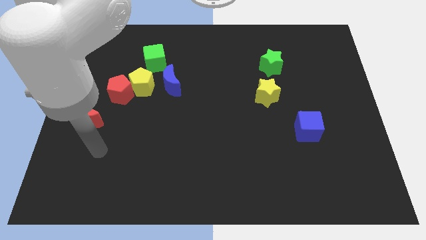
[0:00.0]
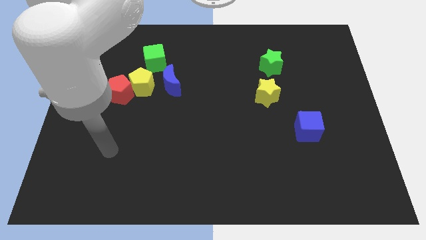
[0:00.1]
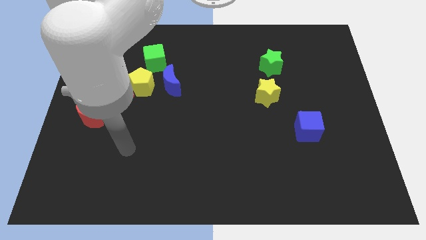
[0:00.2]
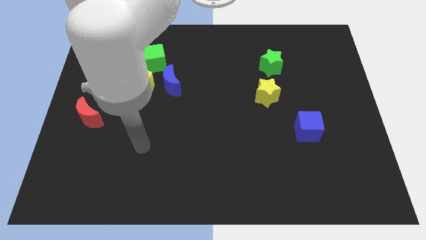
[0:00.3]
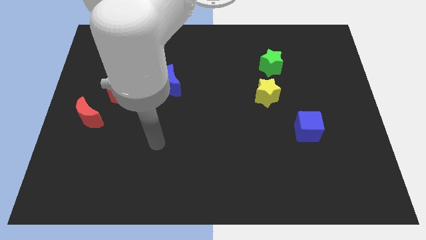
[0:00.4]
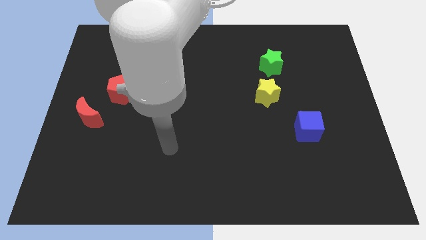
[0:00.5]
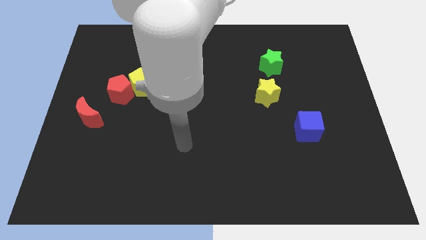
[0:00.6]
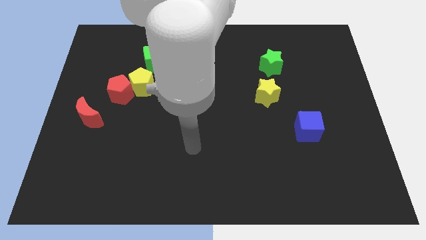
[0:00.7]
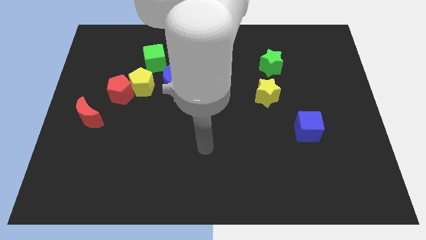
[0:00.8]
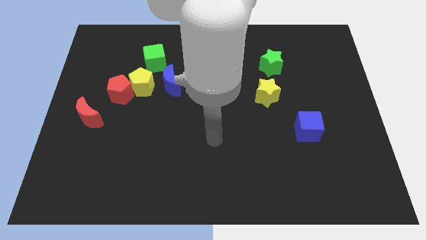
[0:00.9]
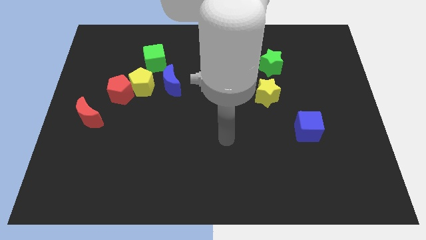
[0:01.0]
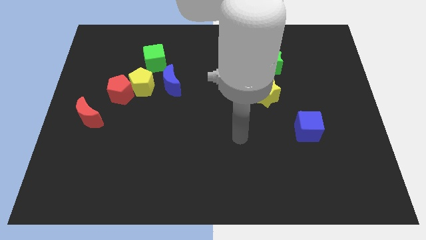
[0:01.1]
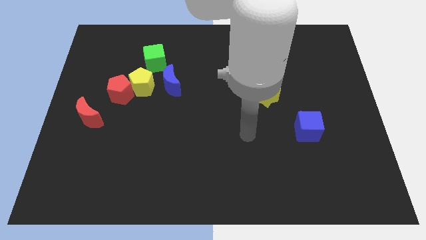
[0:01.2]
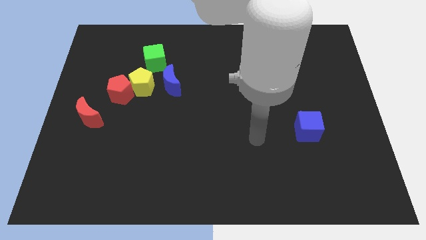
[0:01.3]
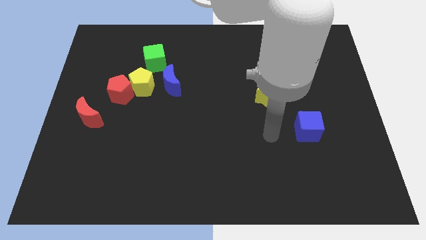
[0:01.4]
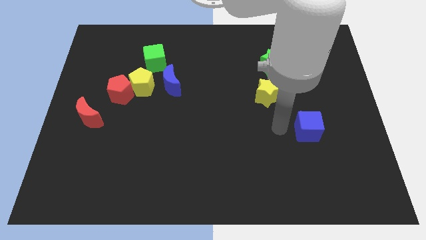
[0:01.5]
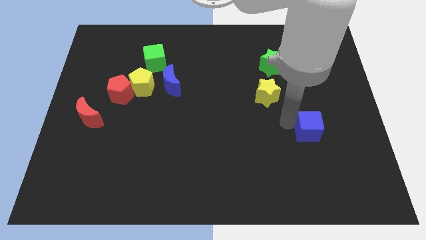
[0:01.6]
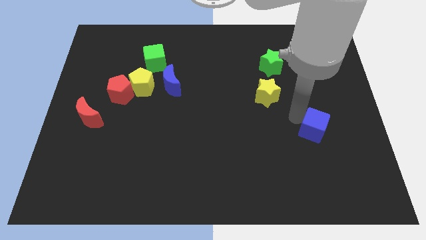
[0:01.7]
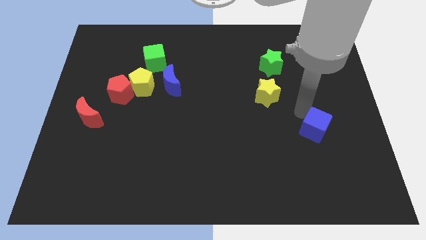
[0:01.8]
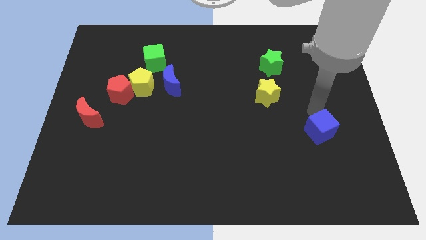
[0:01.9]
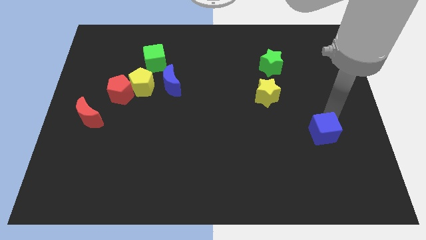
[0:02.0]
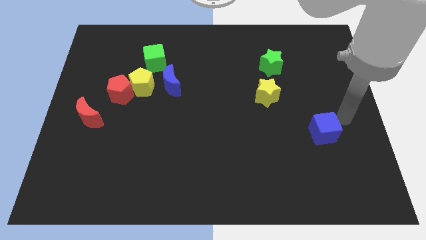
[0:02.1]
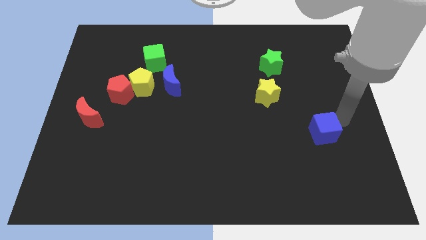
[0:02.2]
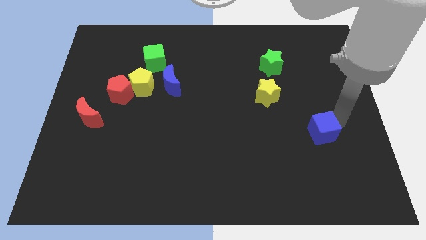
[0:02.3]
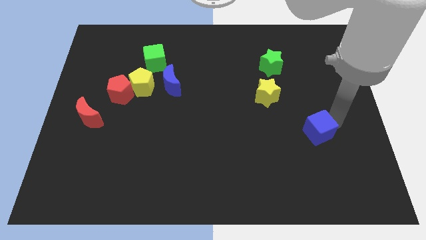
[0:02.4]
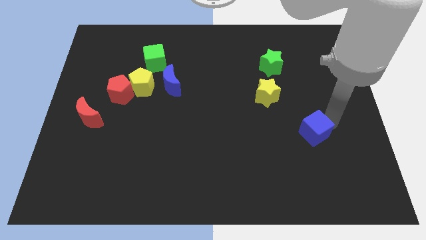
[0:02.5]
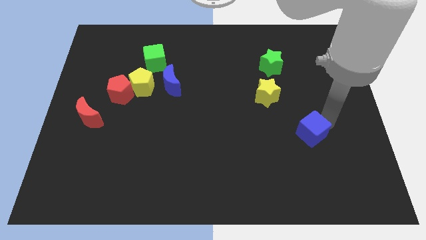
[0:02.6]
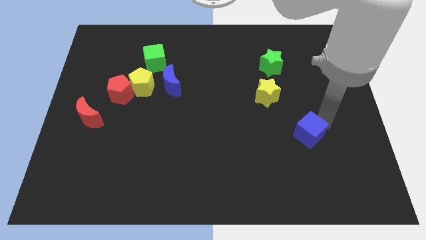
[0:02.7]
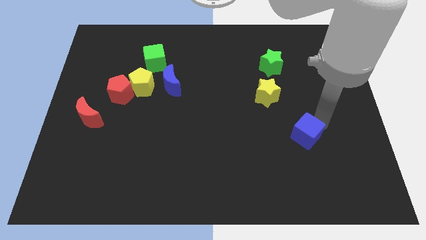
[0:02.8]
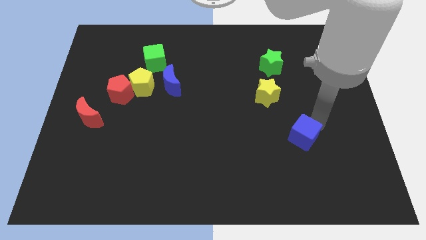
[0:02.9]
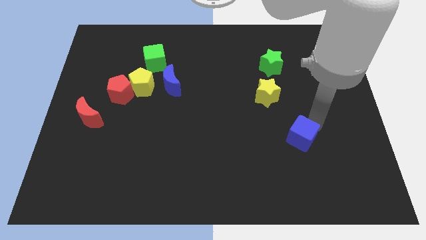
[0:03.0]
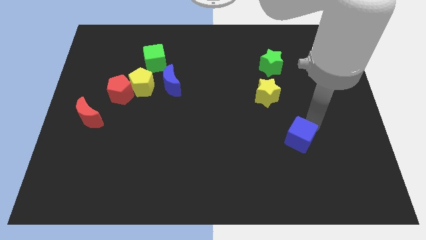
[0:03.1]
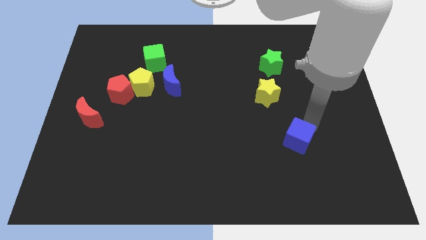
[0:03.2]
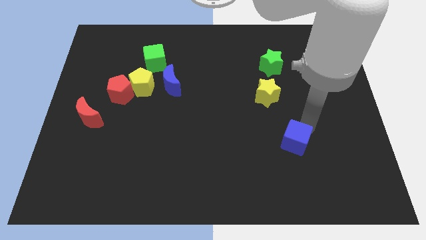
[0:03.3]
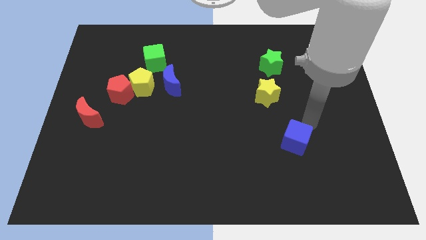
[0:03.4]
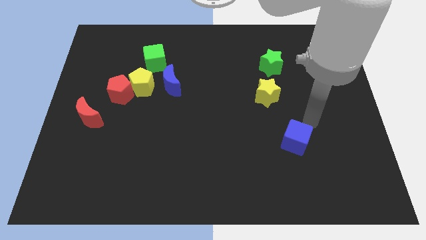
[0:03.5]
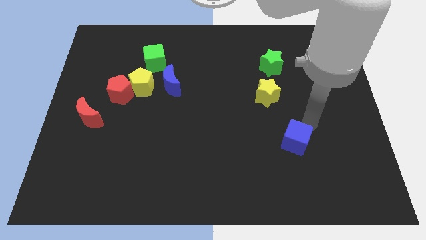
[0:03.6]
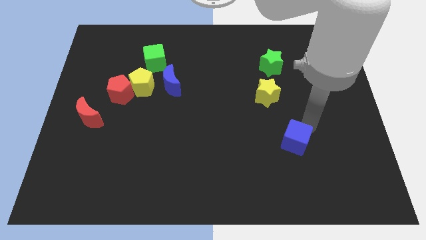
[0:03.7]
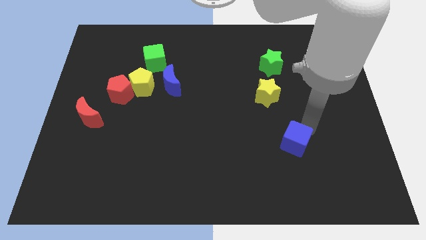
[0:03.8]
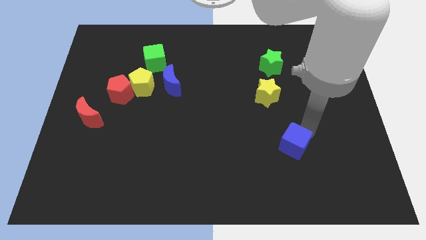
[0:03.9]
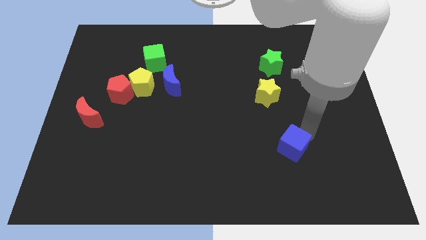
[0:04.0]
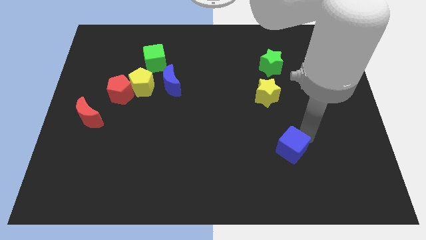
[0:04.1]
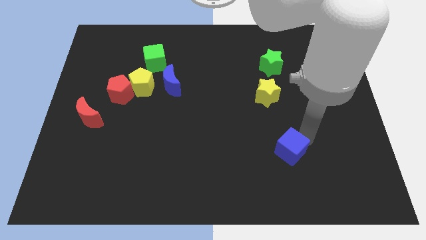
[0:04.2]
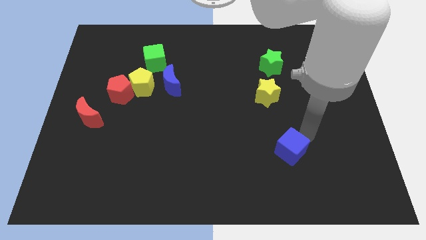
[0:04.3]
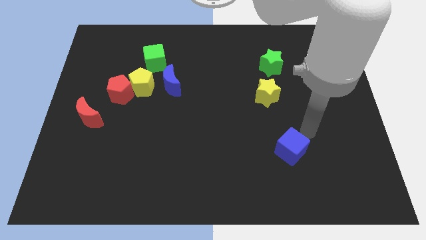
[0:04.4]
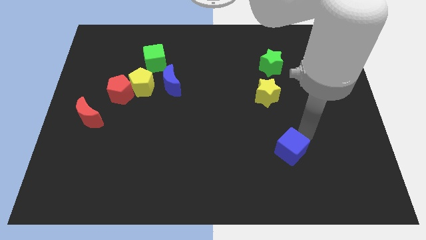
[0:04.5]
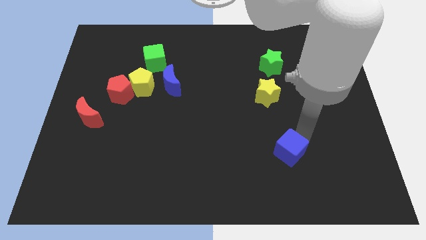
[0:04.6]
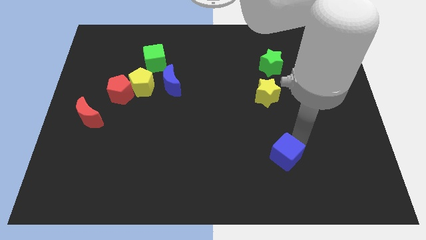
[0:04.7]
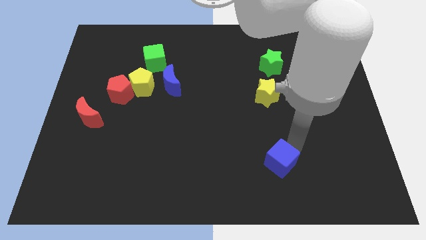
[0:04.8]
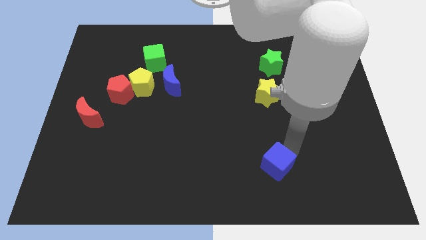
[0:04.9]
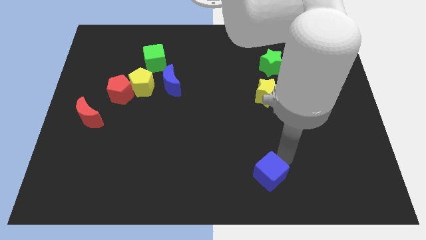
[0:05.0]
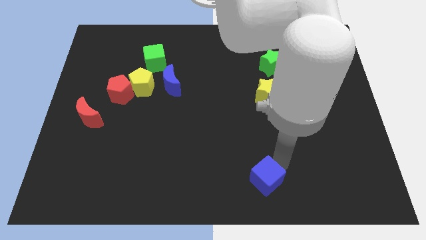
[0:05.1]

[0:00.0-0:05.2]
push the blue cube to the bottom side

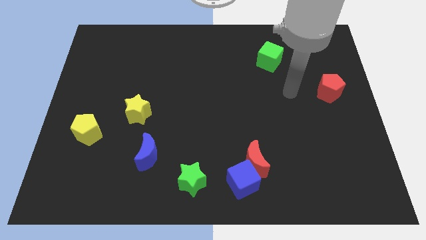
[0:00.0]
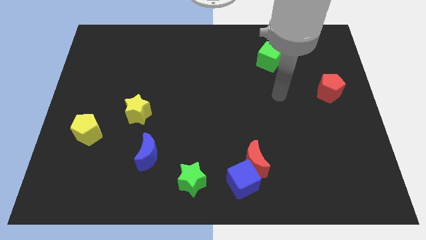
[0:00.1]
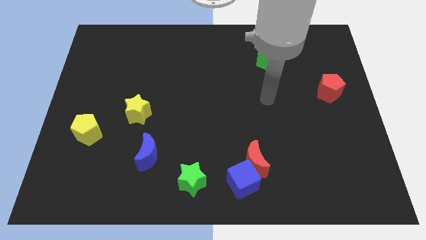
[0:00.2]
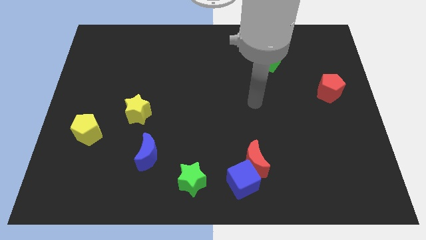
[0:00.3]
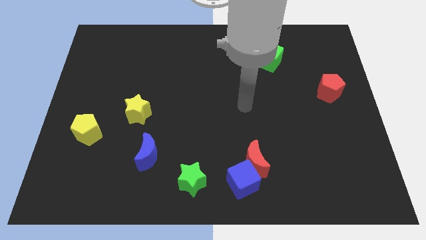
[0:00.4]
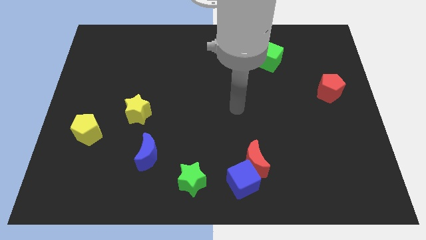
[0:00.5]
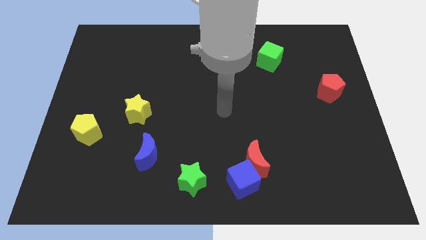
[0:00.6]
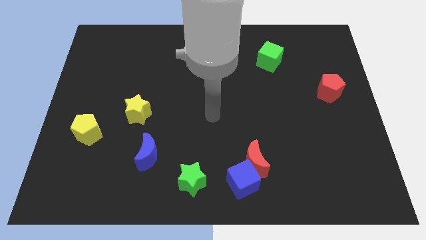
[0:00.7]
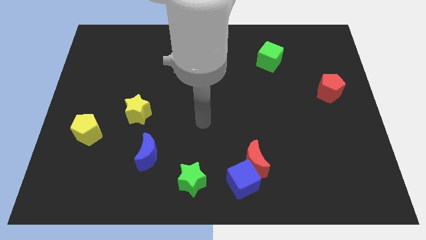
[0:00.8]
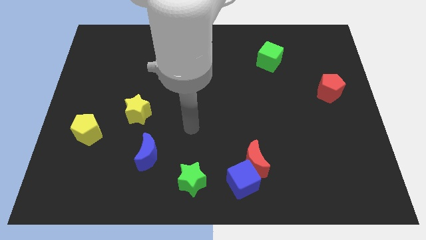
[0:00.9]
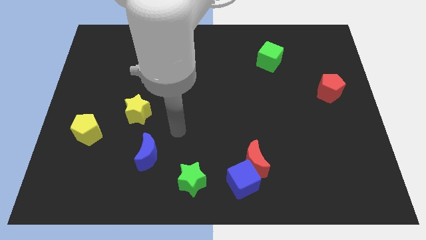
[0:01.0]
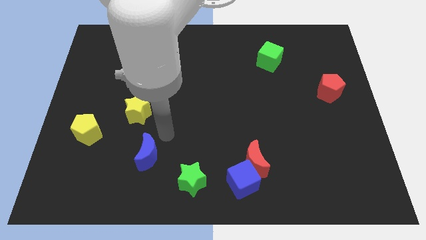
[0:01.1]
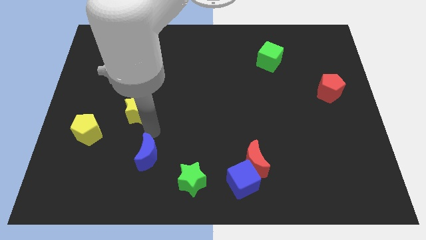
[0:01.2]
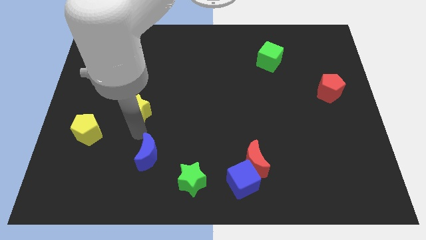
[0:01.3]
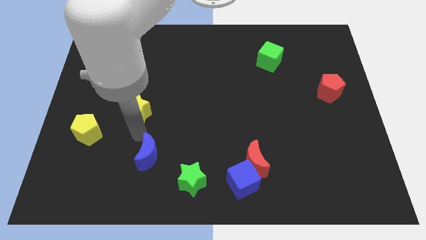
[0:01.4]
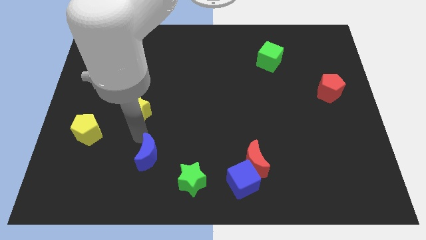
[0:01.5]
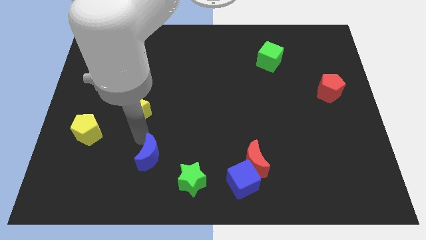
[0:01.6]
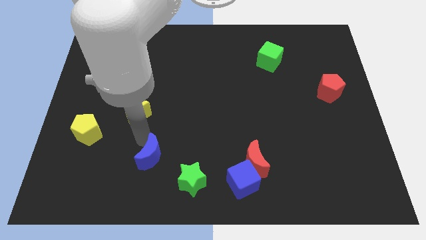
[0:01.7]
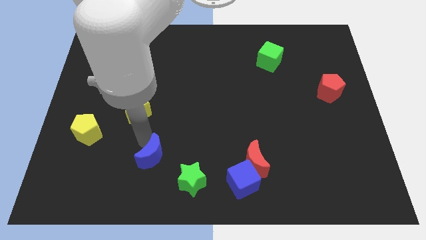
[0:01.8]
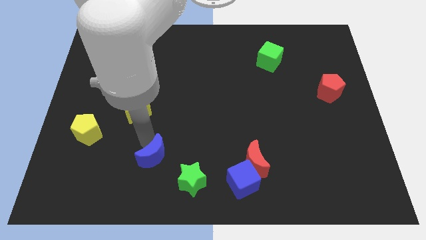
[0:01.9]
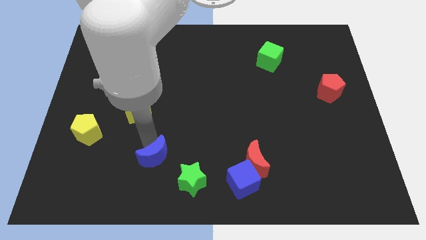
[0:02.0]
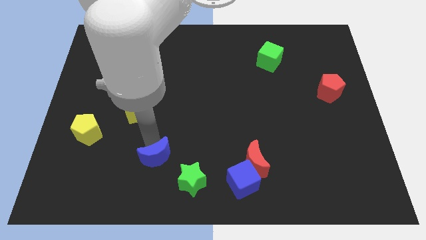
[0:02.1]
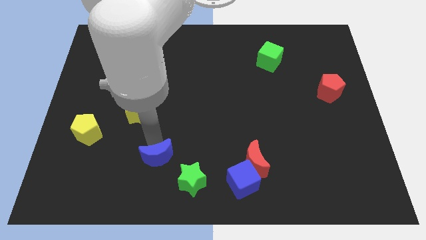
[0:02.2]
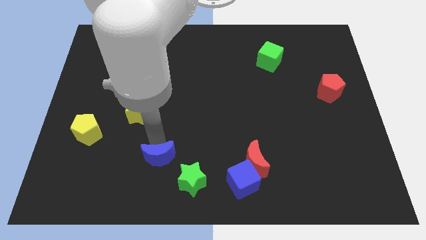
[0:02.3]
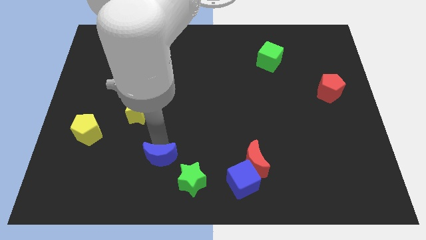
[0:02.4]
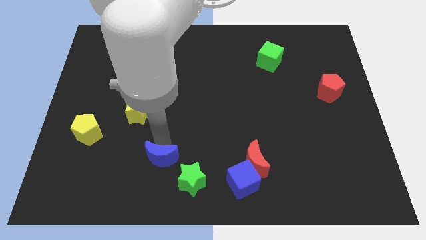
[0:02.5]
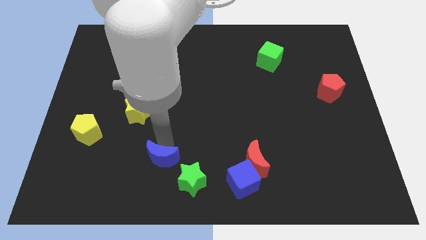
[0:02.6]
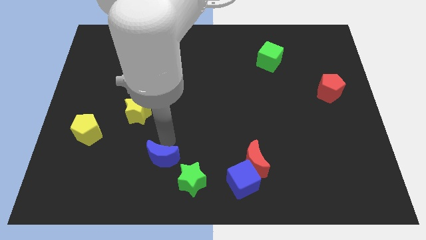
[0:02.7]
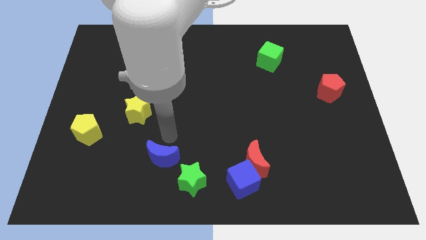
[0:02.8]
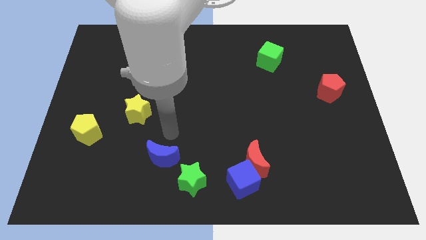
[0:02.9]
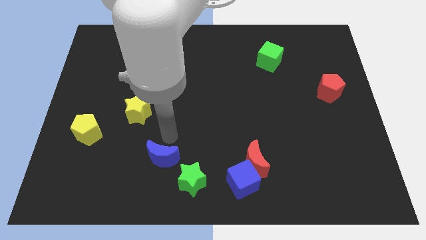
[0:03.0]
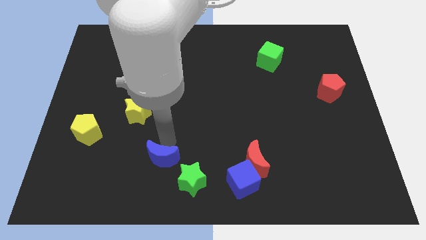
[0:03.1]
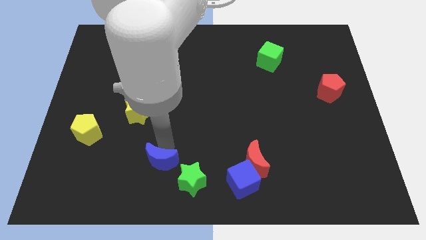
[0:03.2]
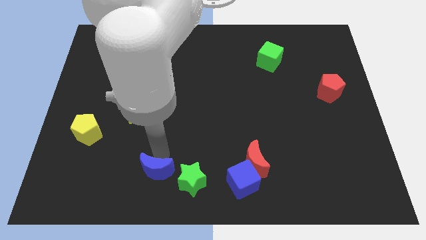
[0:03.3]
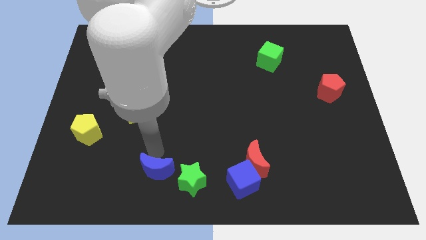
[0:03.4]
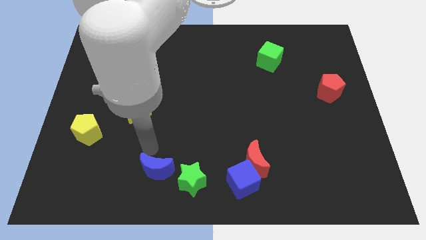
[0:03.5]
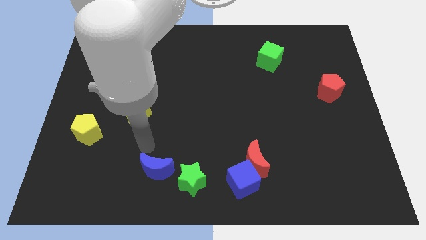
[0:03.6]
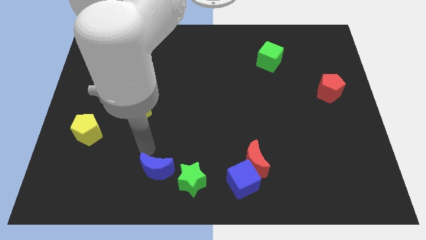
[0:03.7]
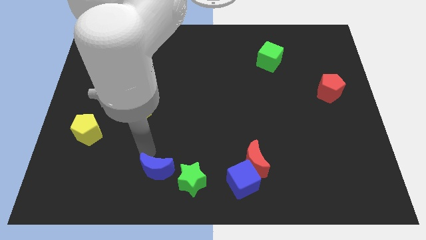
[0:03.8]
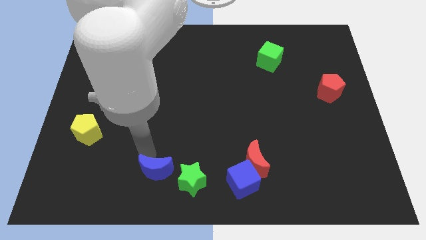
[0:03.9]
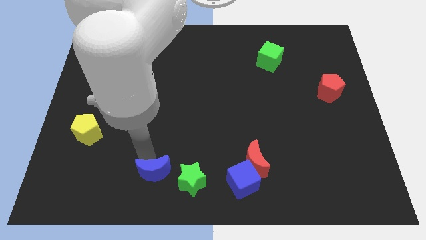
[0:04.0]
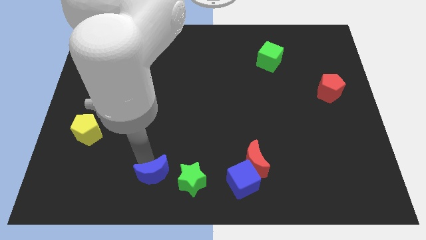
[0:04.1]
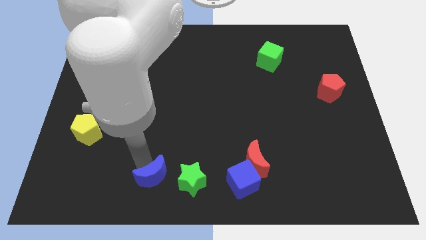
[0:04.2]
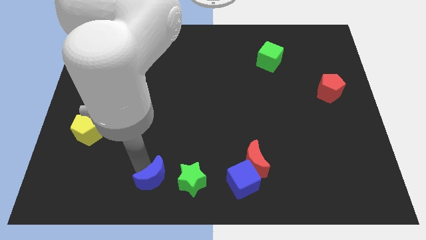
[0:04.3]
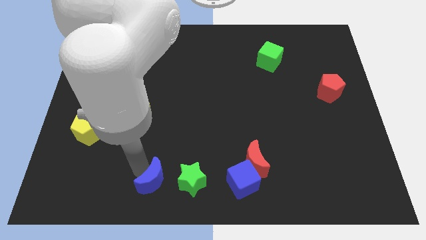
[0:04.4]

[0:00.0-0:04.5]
put the blue moon to the bottom side
